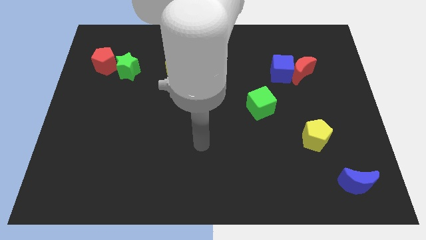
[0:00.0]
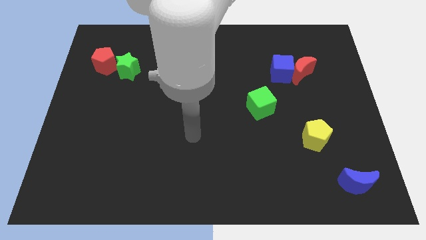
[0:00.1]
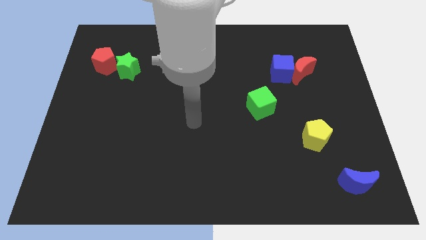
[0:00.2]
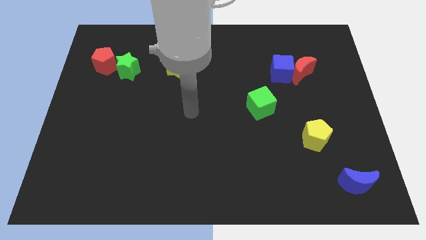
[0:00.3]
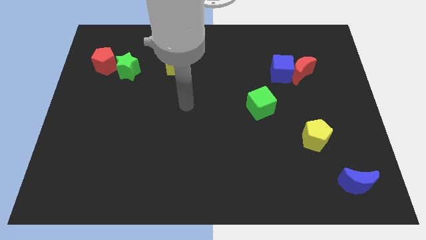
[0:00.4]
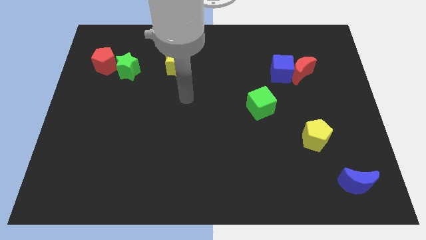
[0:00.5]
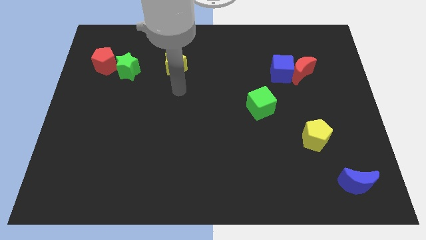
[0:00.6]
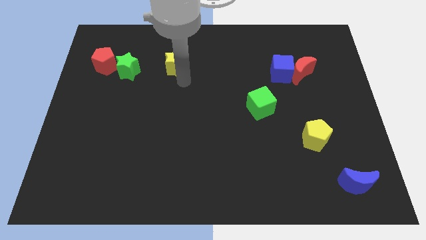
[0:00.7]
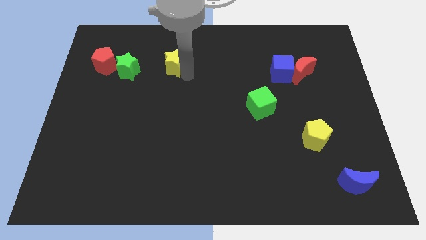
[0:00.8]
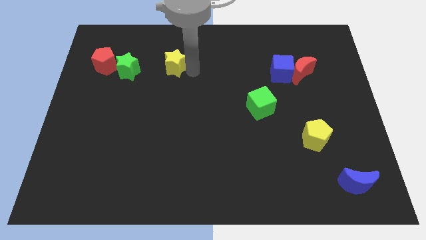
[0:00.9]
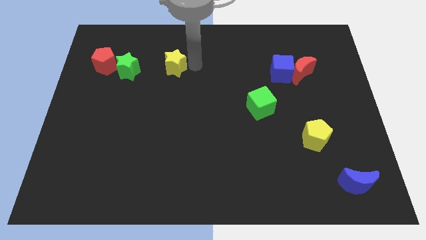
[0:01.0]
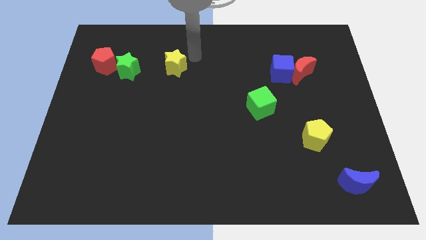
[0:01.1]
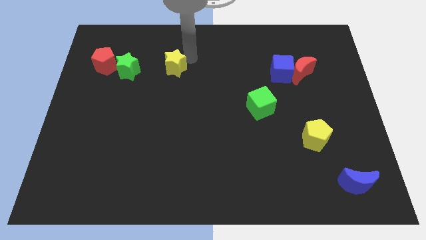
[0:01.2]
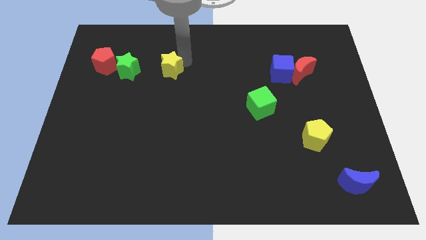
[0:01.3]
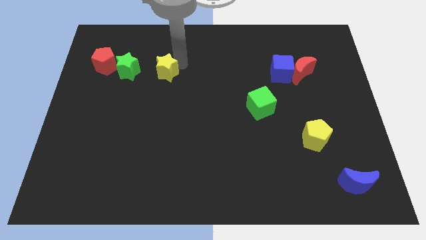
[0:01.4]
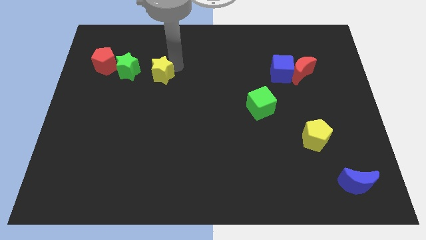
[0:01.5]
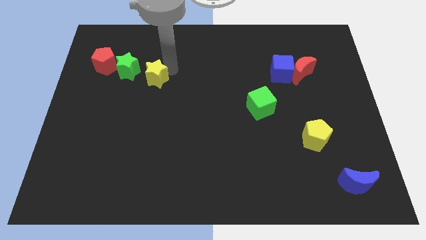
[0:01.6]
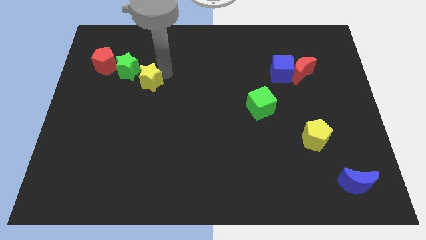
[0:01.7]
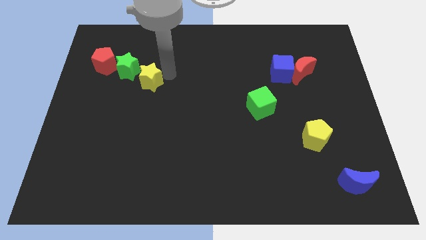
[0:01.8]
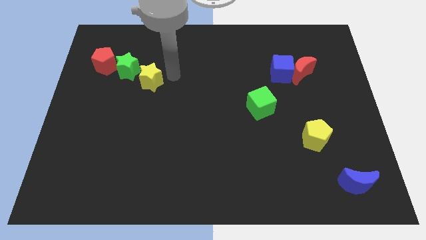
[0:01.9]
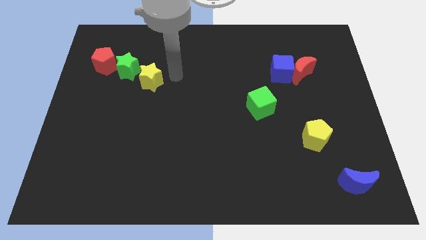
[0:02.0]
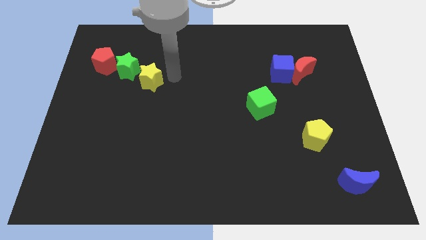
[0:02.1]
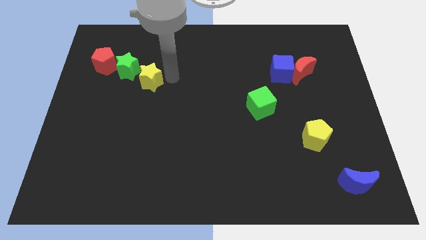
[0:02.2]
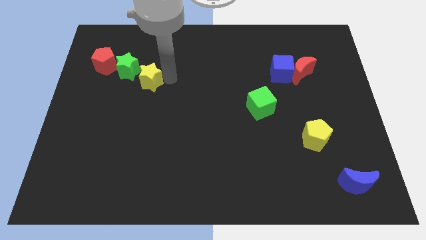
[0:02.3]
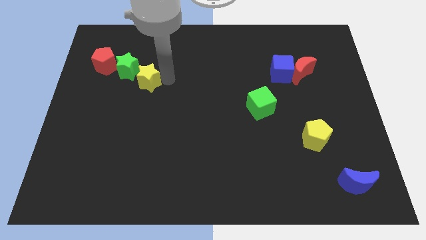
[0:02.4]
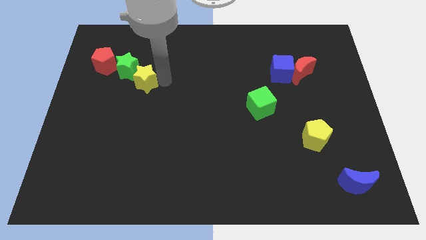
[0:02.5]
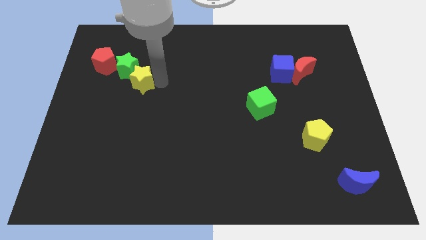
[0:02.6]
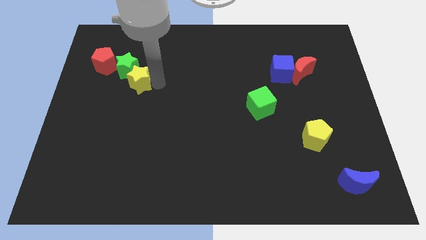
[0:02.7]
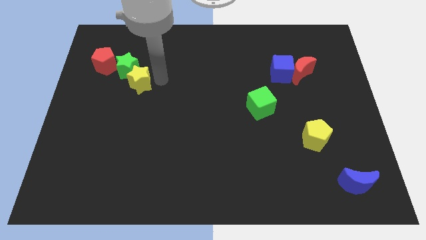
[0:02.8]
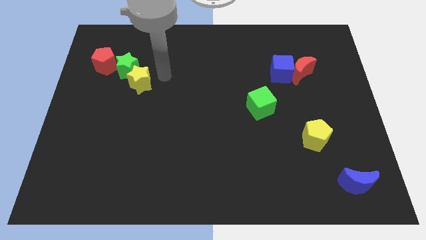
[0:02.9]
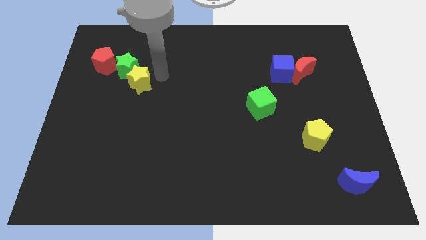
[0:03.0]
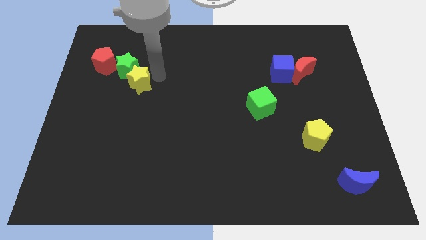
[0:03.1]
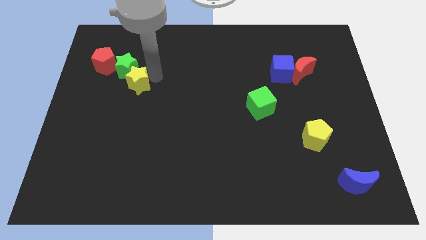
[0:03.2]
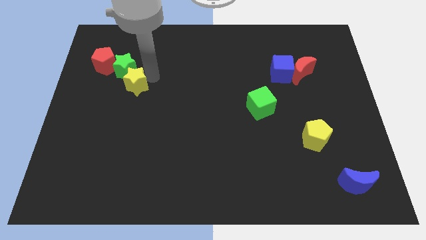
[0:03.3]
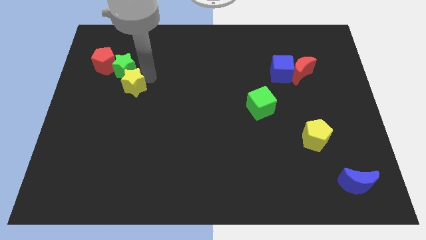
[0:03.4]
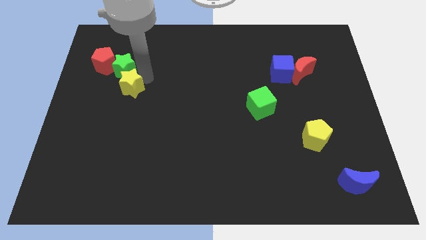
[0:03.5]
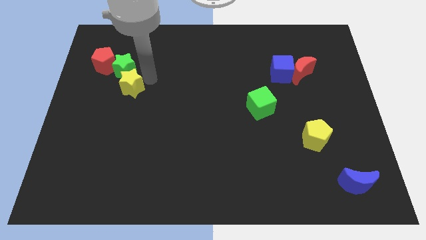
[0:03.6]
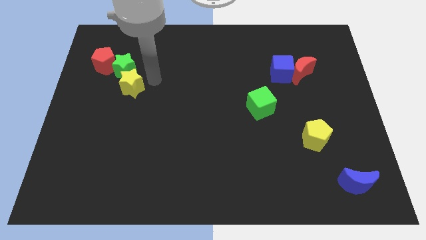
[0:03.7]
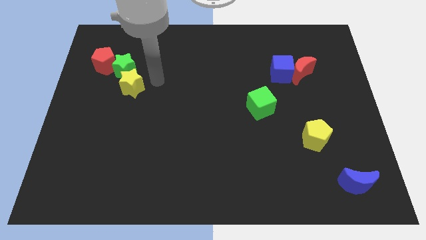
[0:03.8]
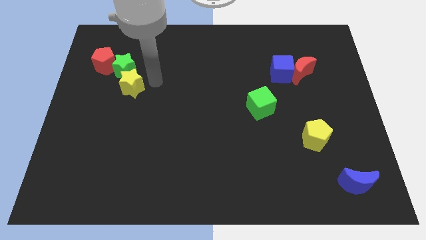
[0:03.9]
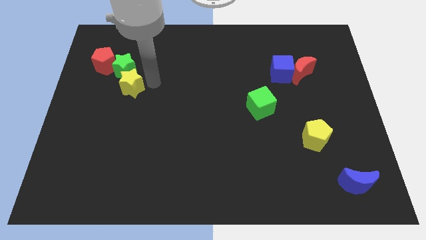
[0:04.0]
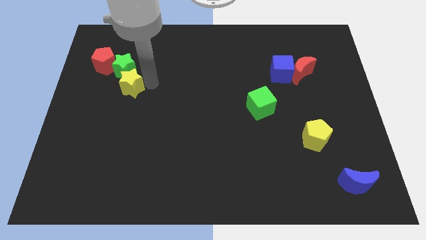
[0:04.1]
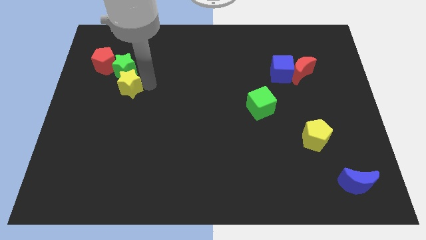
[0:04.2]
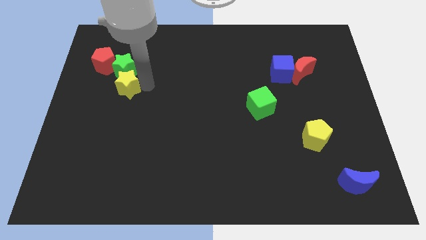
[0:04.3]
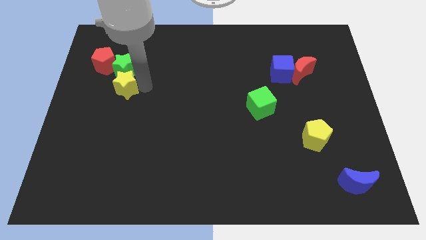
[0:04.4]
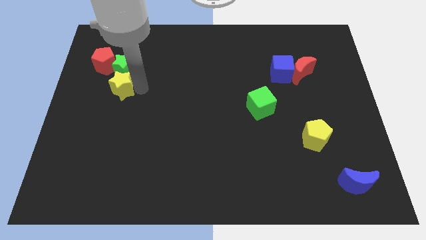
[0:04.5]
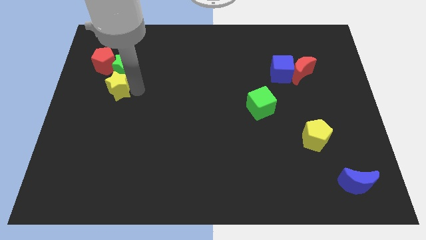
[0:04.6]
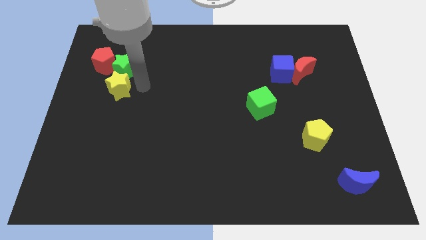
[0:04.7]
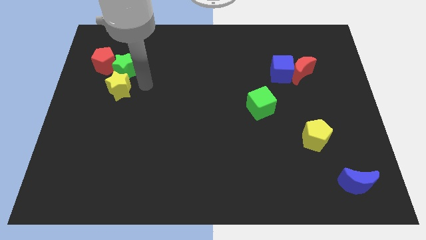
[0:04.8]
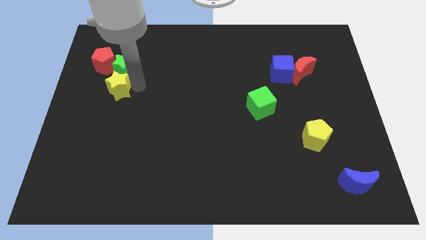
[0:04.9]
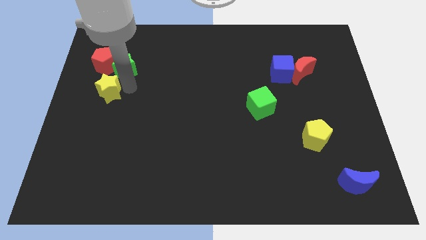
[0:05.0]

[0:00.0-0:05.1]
slide the yellow star to the left side

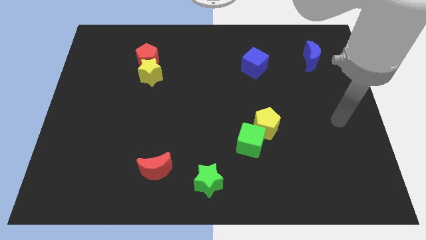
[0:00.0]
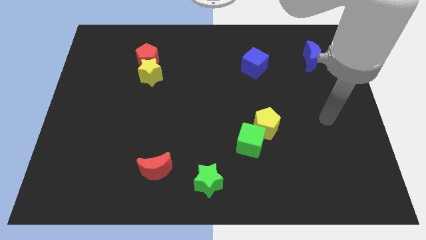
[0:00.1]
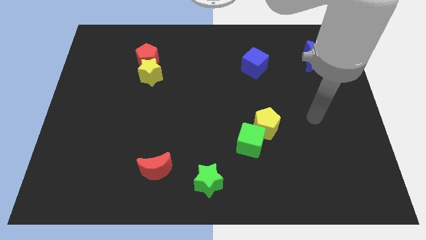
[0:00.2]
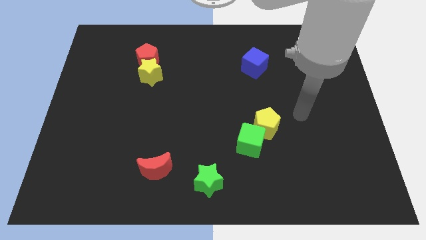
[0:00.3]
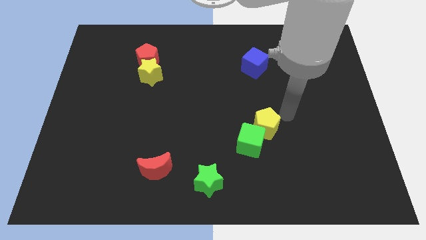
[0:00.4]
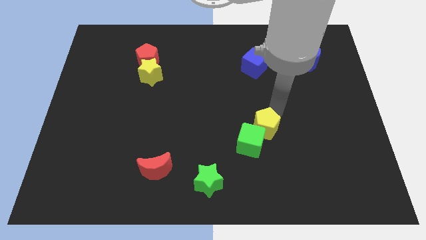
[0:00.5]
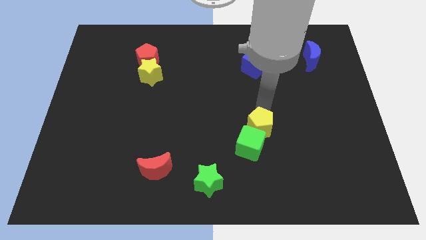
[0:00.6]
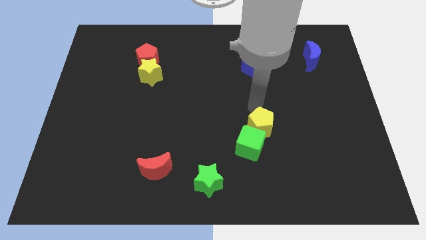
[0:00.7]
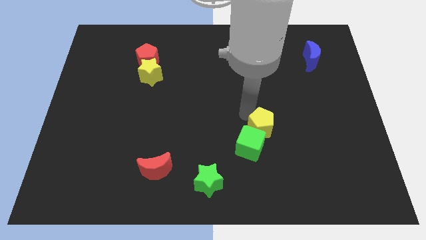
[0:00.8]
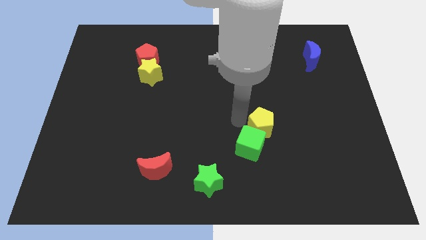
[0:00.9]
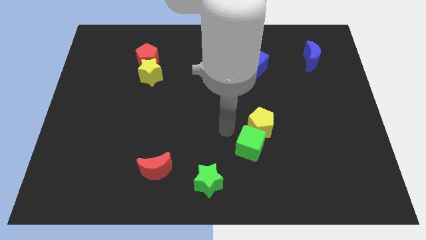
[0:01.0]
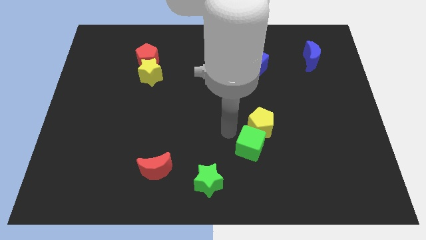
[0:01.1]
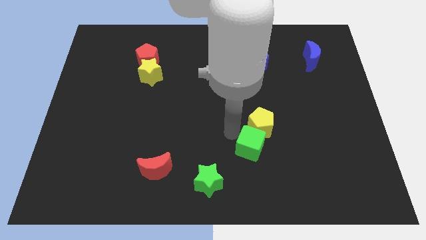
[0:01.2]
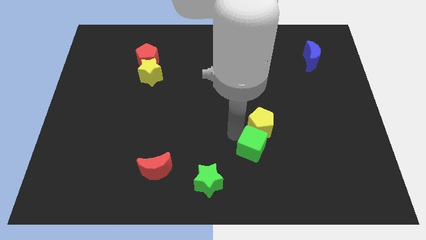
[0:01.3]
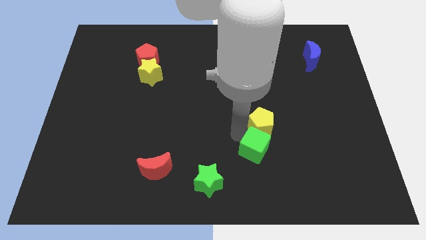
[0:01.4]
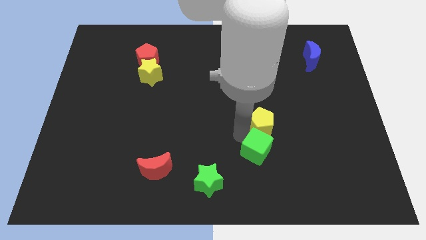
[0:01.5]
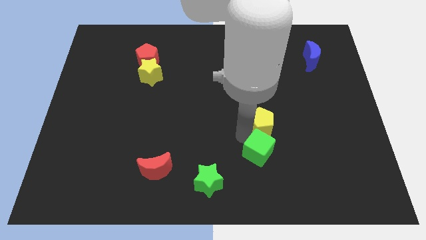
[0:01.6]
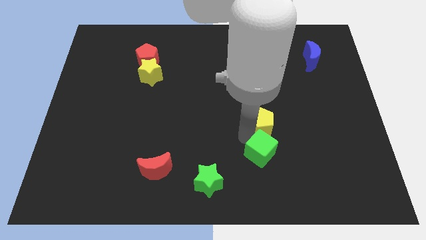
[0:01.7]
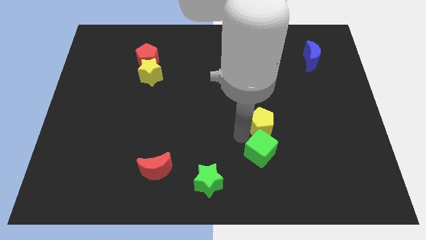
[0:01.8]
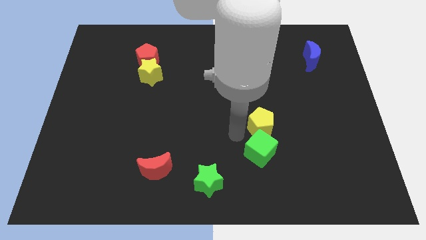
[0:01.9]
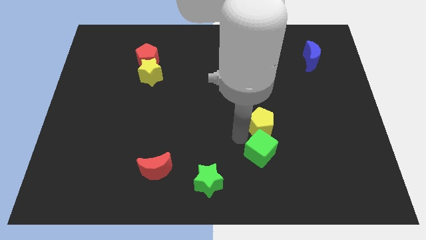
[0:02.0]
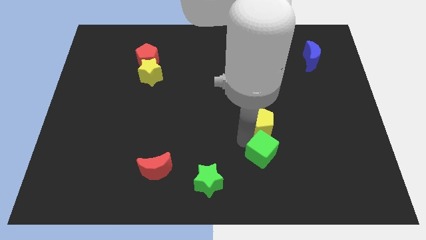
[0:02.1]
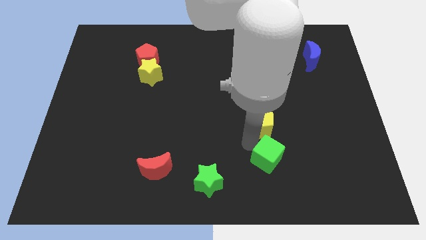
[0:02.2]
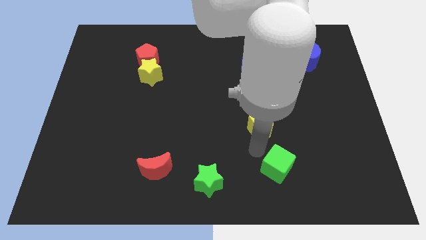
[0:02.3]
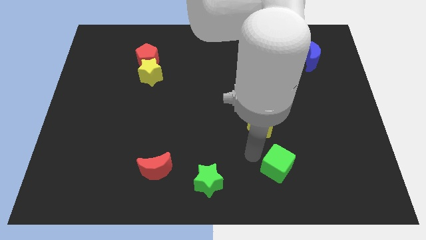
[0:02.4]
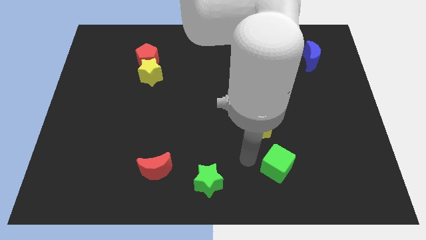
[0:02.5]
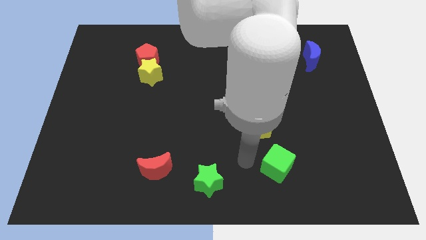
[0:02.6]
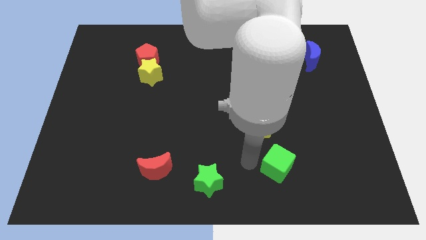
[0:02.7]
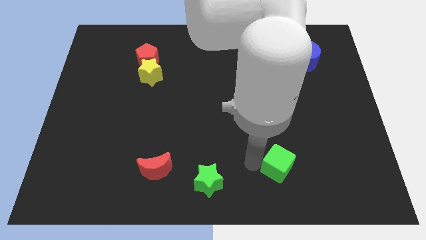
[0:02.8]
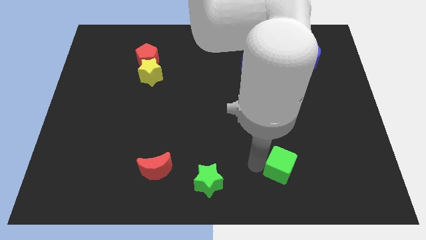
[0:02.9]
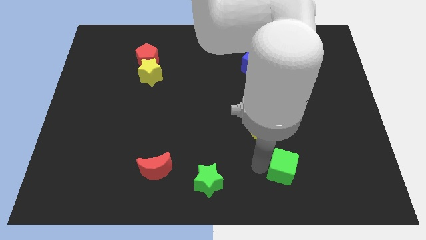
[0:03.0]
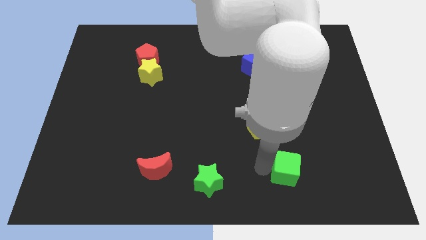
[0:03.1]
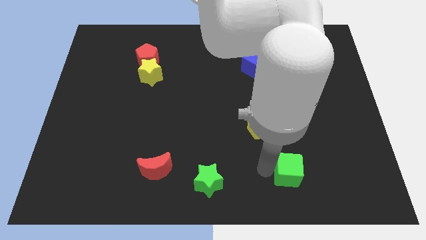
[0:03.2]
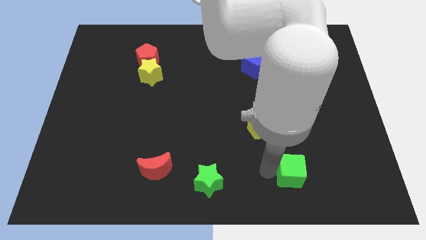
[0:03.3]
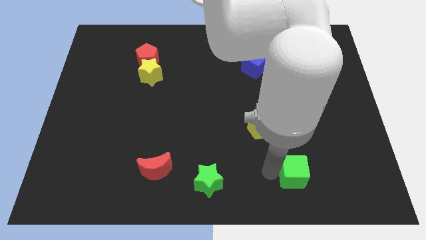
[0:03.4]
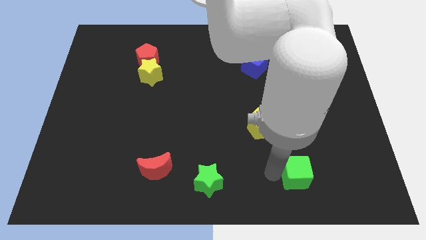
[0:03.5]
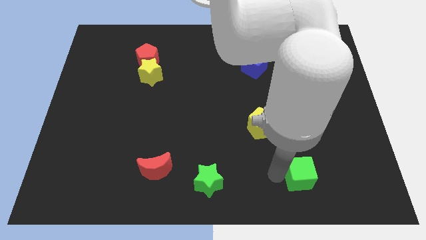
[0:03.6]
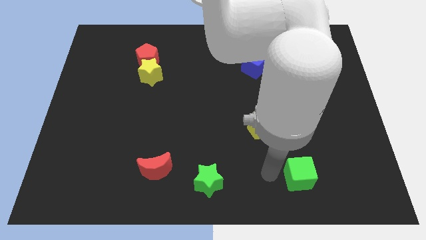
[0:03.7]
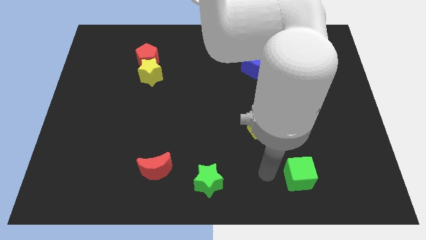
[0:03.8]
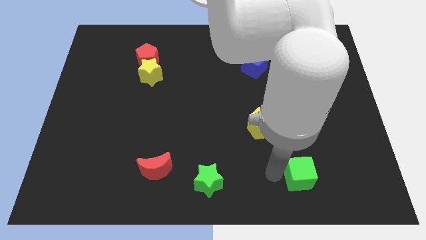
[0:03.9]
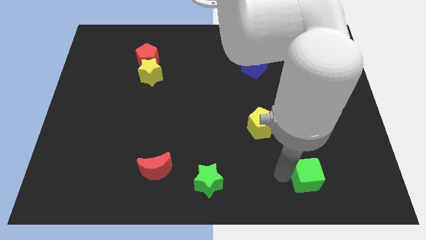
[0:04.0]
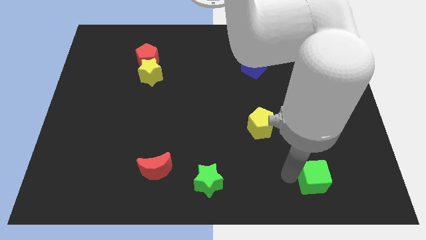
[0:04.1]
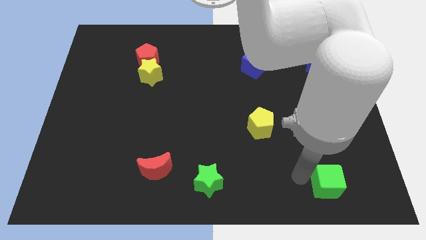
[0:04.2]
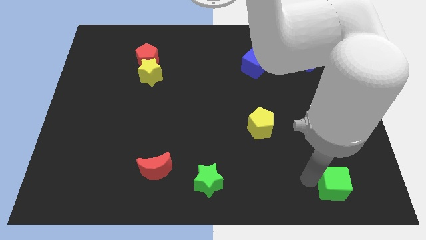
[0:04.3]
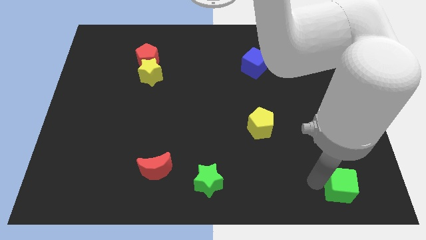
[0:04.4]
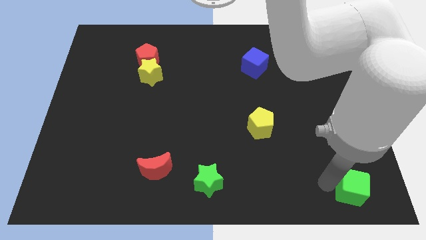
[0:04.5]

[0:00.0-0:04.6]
move the green cube to the bottom right corner
